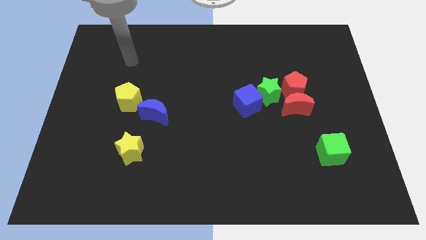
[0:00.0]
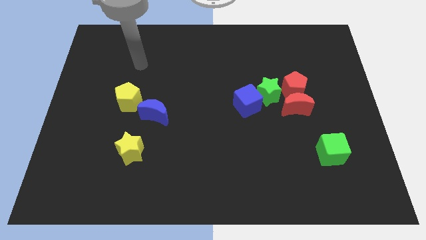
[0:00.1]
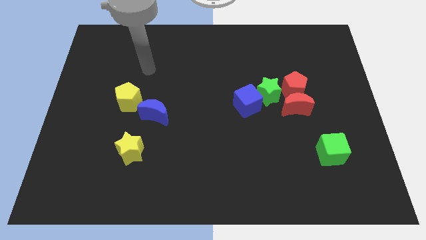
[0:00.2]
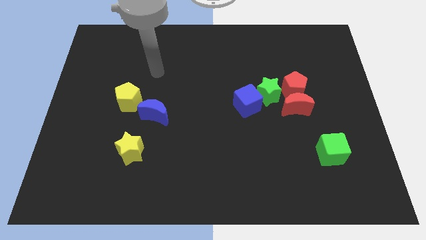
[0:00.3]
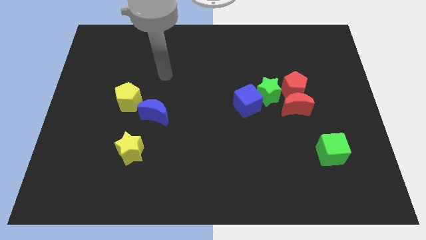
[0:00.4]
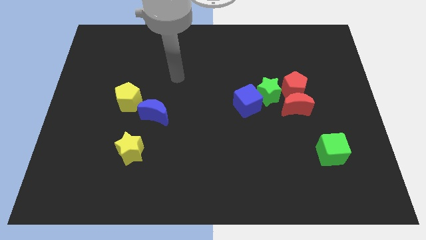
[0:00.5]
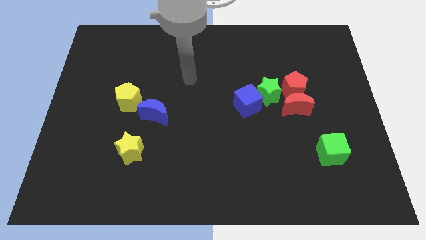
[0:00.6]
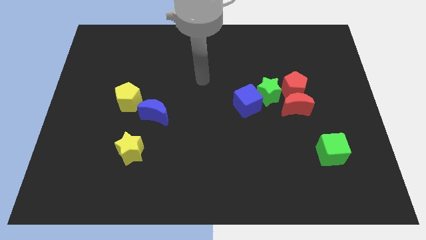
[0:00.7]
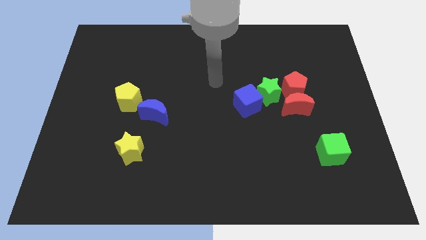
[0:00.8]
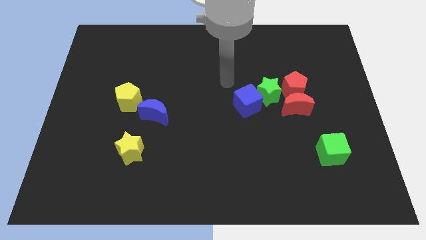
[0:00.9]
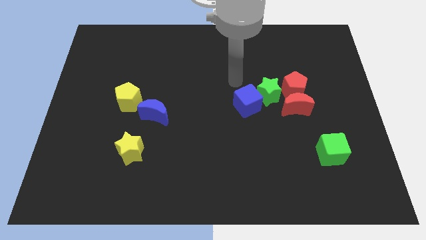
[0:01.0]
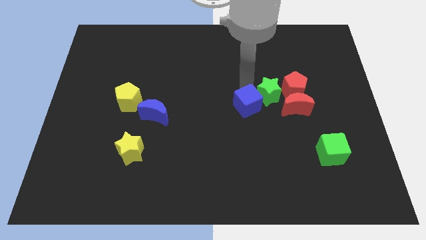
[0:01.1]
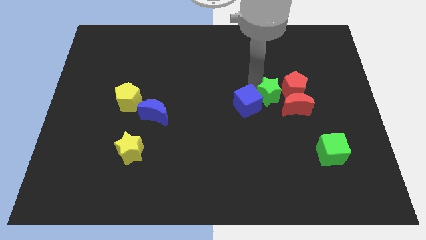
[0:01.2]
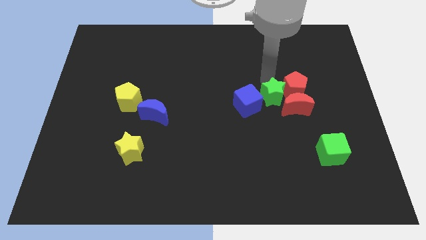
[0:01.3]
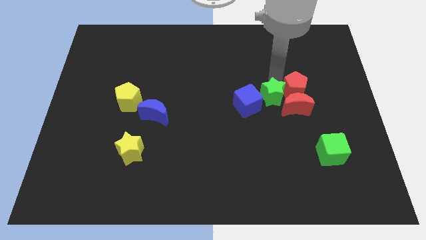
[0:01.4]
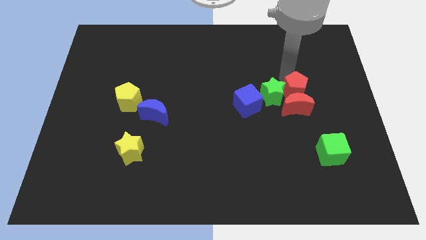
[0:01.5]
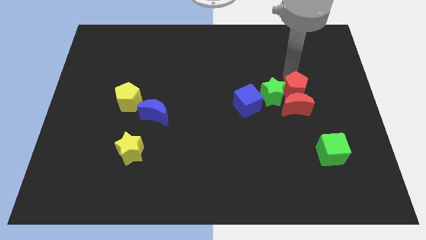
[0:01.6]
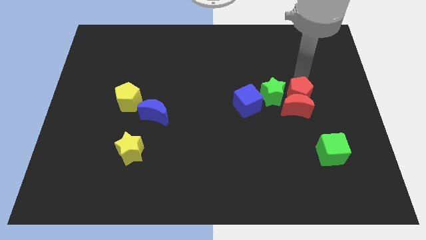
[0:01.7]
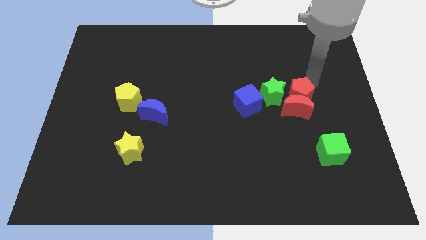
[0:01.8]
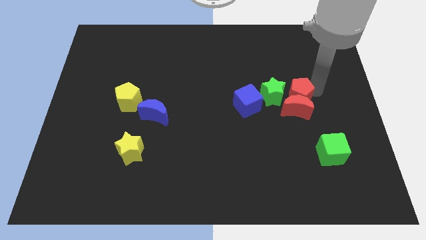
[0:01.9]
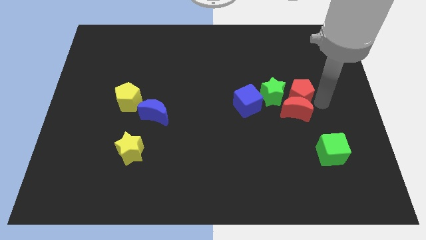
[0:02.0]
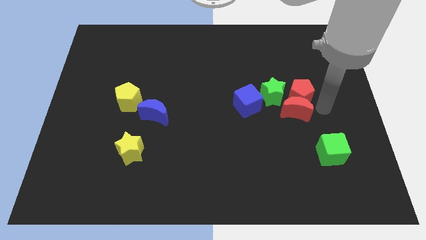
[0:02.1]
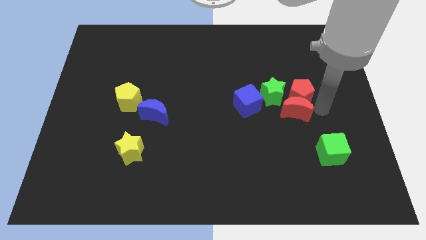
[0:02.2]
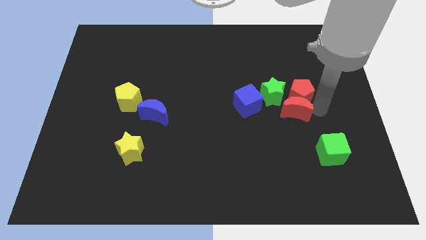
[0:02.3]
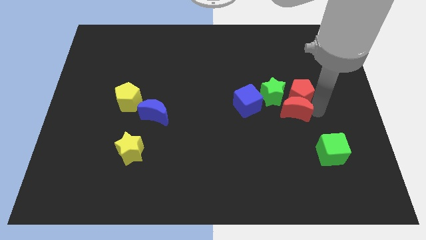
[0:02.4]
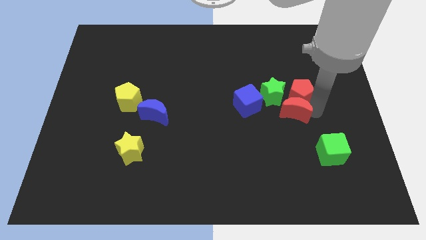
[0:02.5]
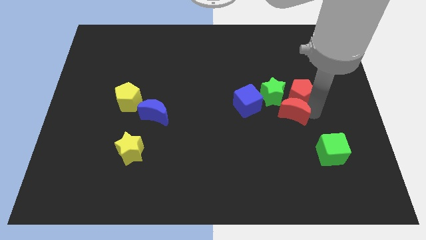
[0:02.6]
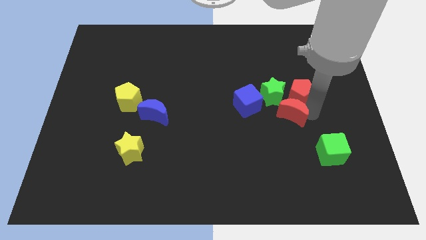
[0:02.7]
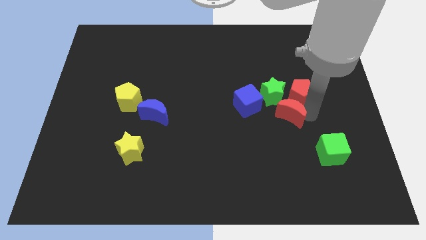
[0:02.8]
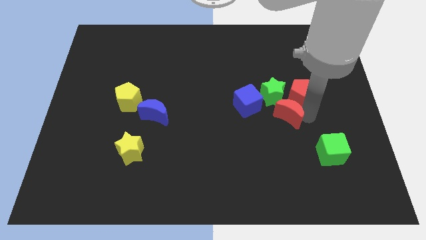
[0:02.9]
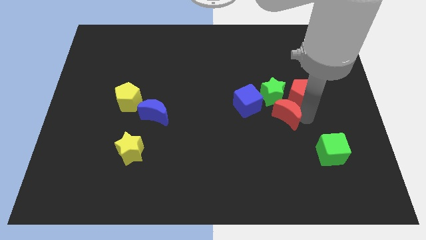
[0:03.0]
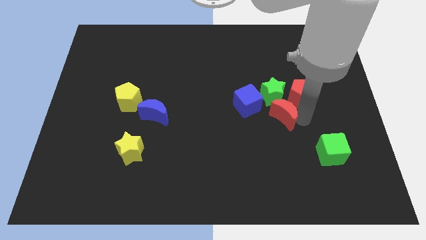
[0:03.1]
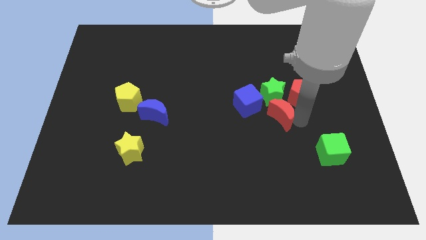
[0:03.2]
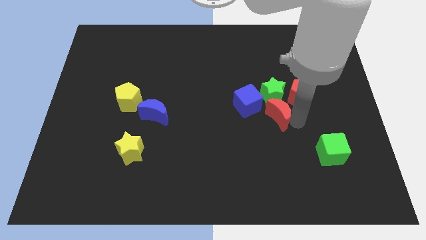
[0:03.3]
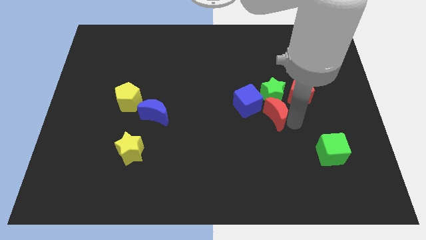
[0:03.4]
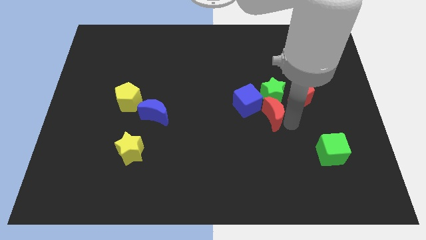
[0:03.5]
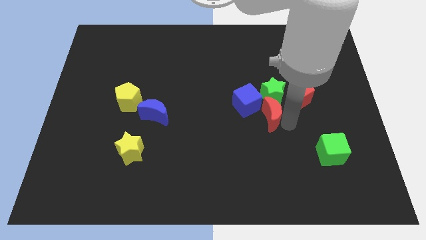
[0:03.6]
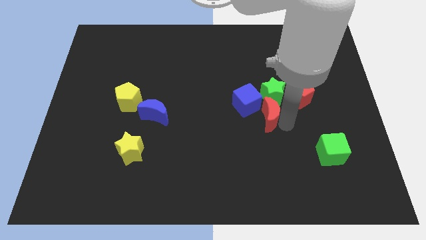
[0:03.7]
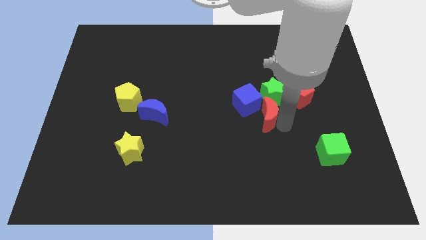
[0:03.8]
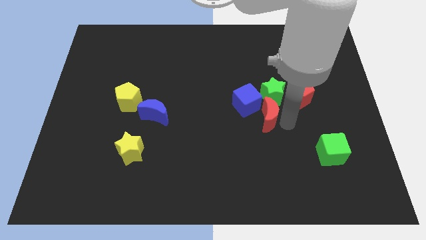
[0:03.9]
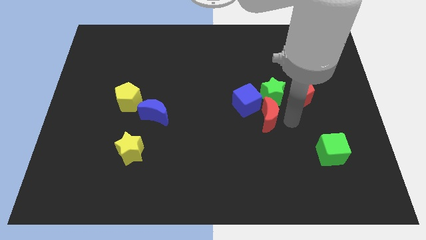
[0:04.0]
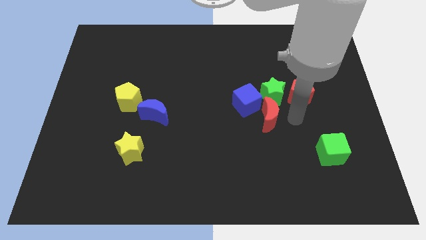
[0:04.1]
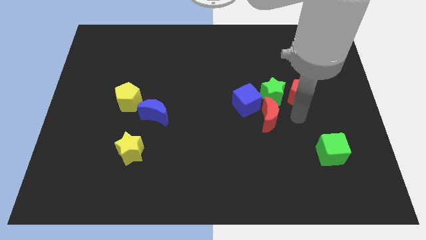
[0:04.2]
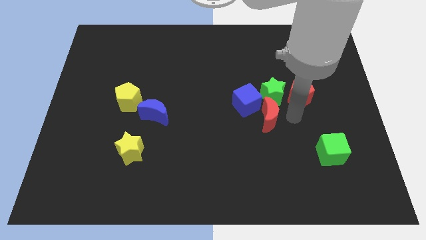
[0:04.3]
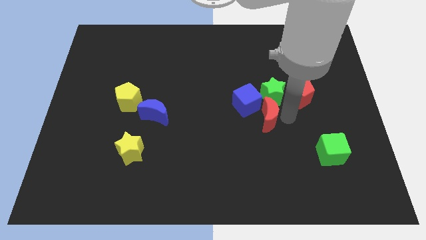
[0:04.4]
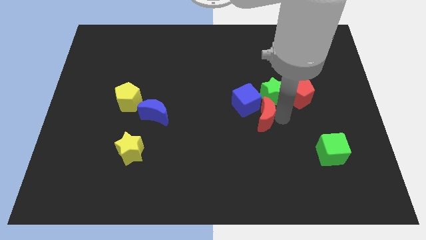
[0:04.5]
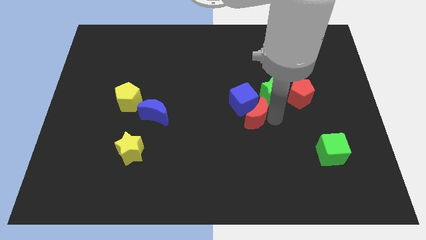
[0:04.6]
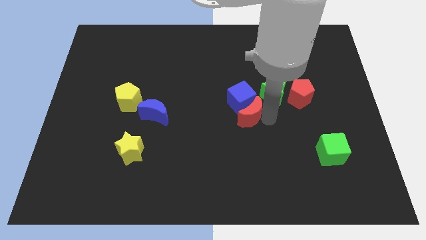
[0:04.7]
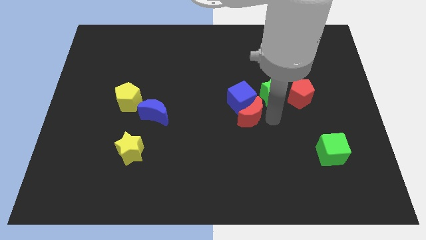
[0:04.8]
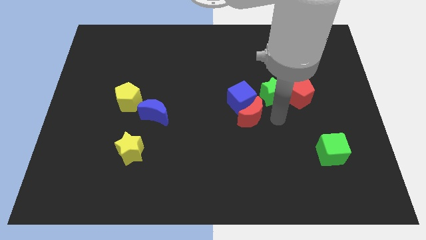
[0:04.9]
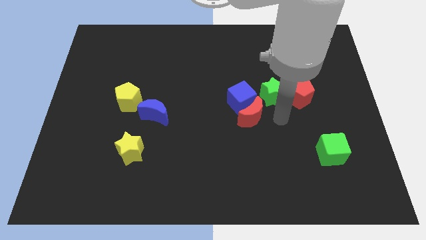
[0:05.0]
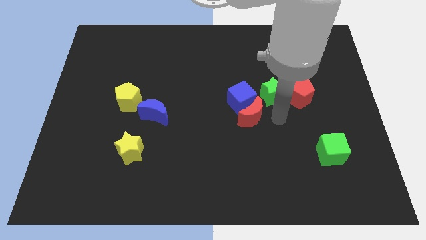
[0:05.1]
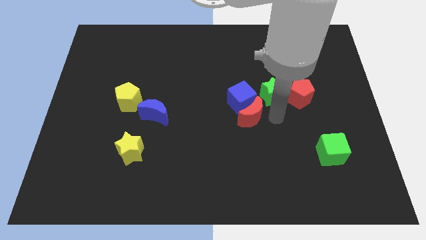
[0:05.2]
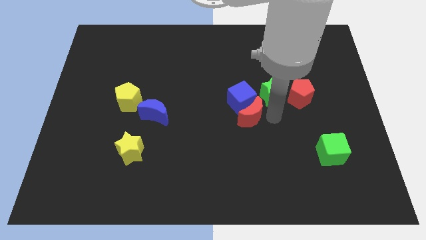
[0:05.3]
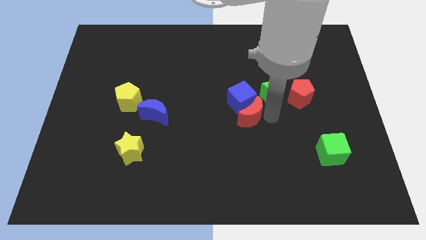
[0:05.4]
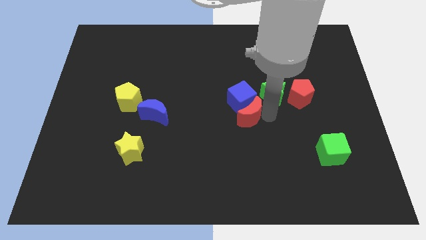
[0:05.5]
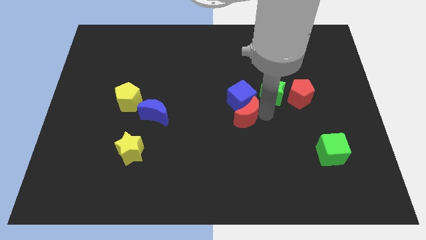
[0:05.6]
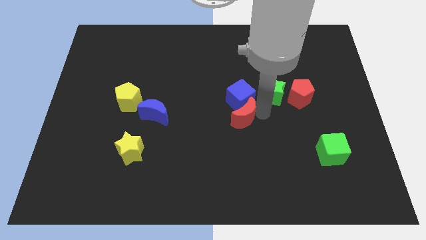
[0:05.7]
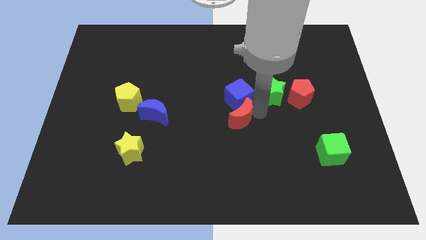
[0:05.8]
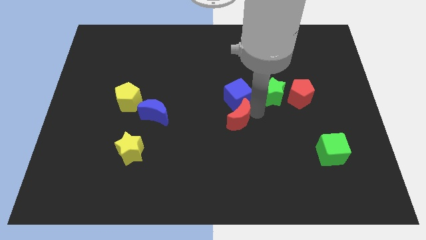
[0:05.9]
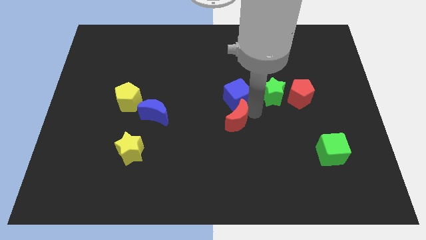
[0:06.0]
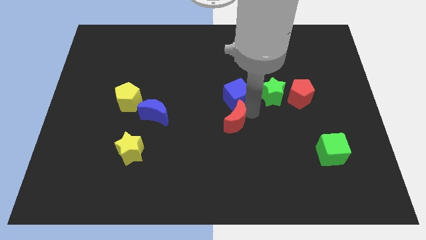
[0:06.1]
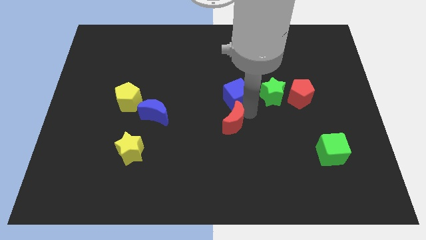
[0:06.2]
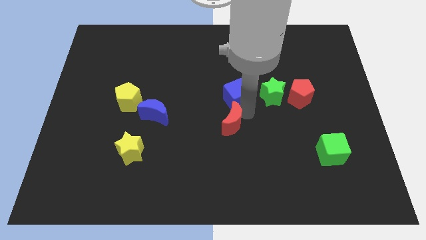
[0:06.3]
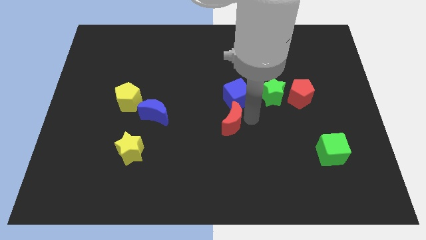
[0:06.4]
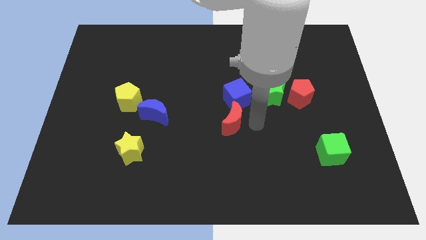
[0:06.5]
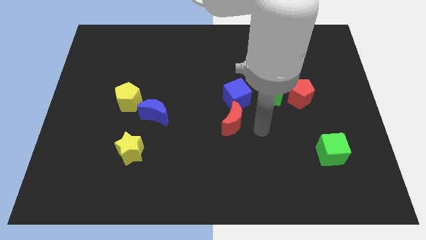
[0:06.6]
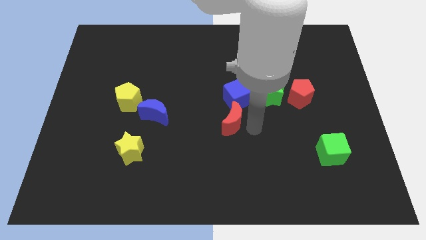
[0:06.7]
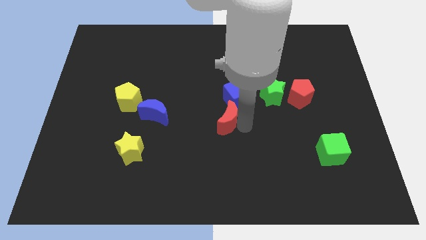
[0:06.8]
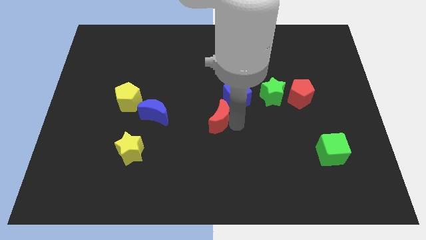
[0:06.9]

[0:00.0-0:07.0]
put the red moon just right of the blue moon

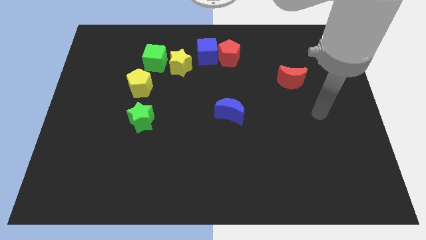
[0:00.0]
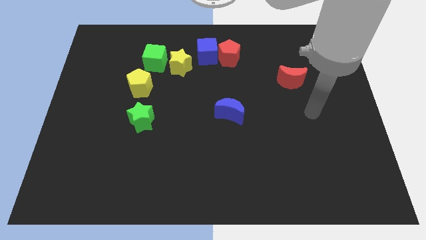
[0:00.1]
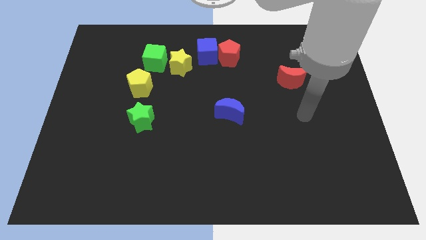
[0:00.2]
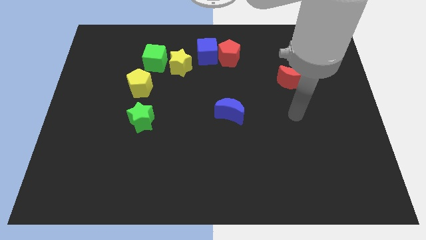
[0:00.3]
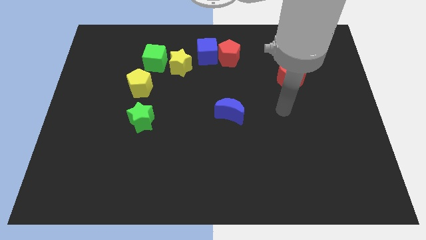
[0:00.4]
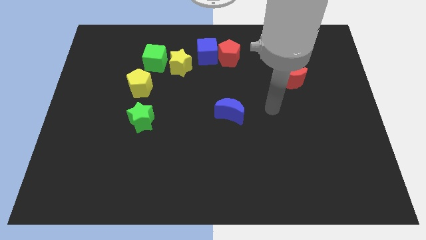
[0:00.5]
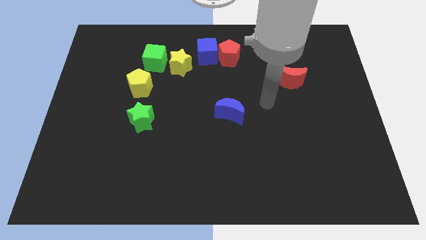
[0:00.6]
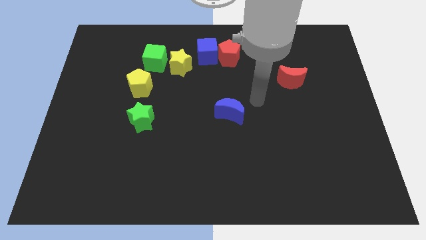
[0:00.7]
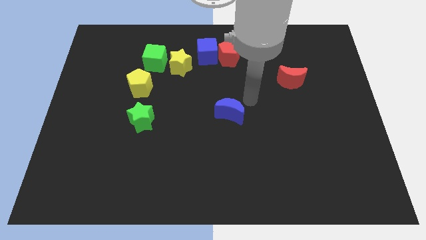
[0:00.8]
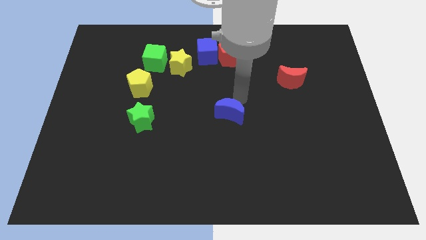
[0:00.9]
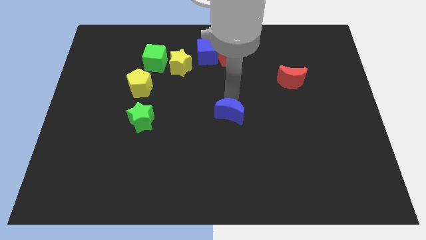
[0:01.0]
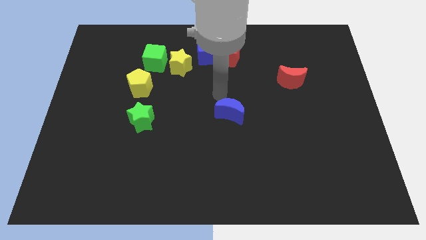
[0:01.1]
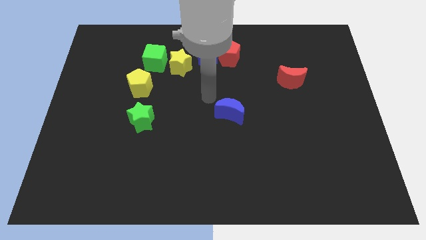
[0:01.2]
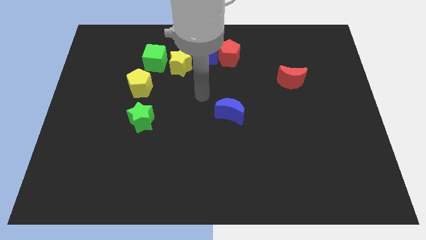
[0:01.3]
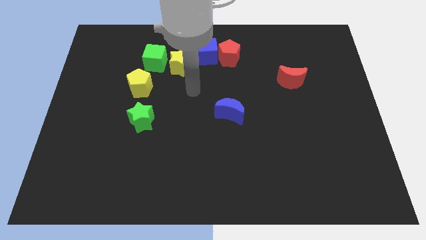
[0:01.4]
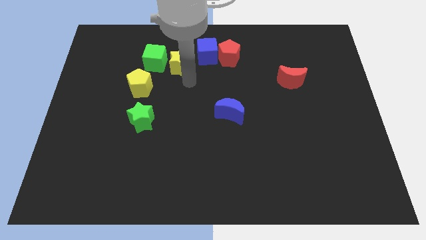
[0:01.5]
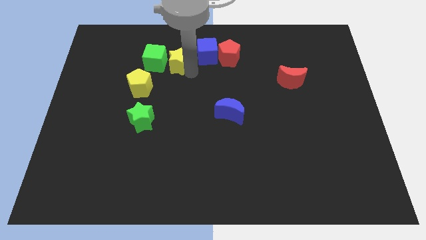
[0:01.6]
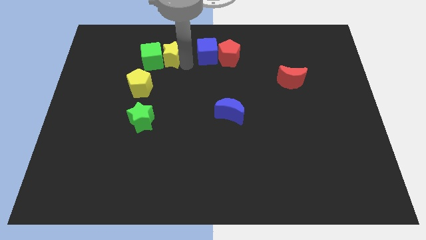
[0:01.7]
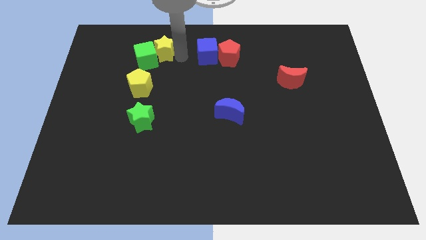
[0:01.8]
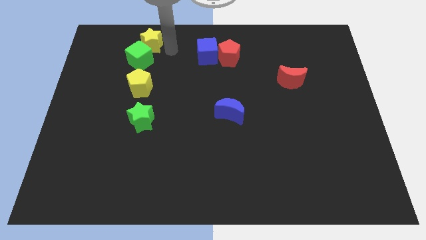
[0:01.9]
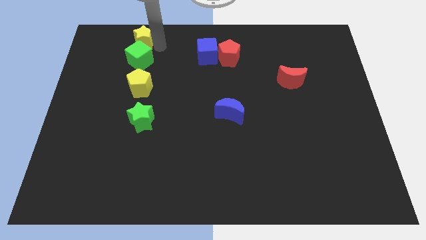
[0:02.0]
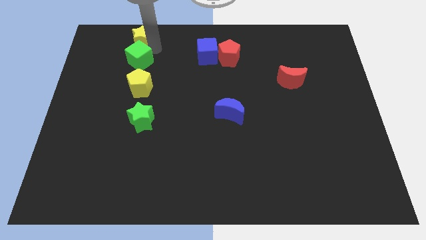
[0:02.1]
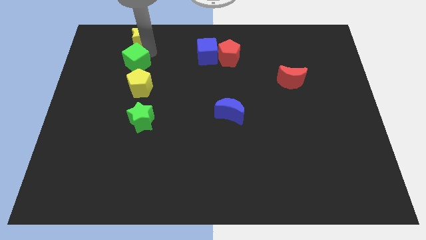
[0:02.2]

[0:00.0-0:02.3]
slide the green cube to the top left side of the yellow pentagon
